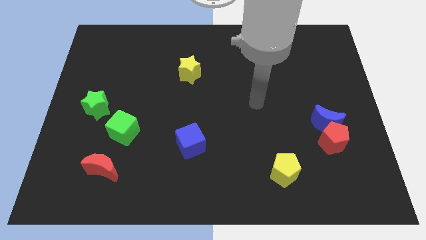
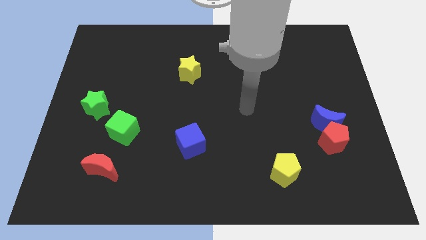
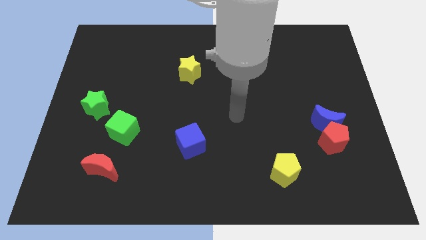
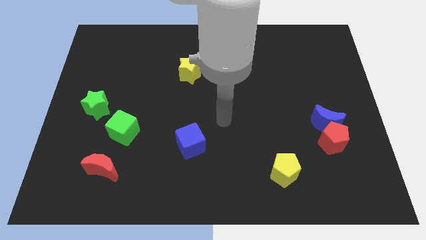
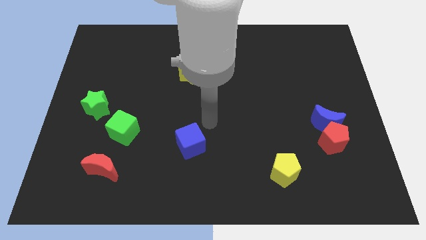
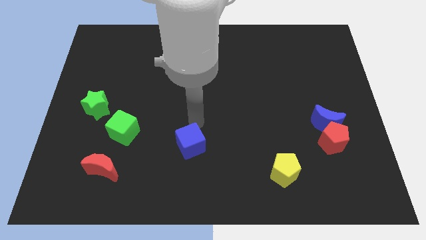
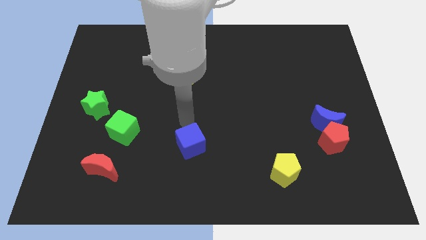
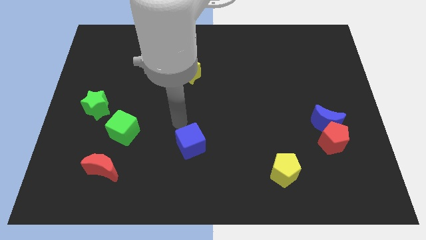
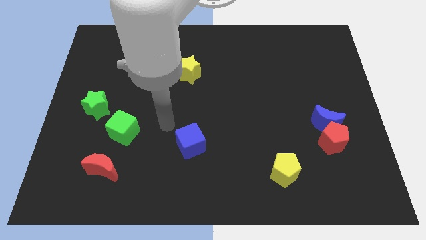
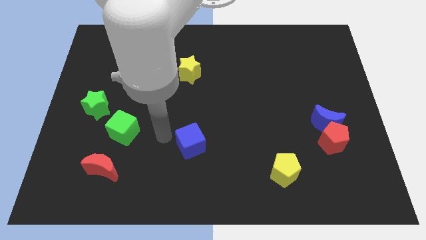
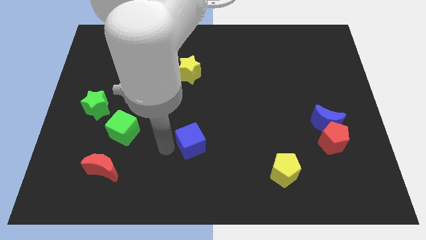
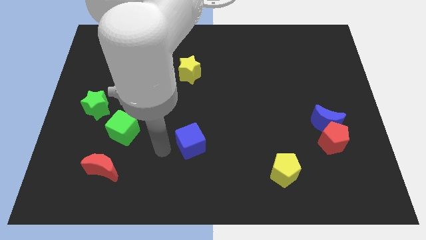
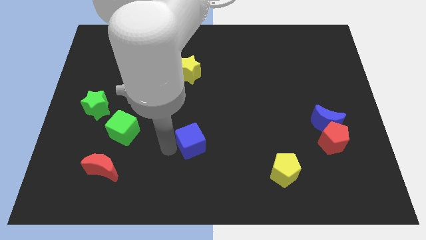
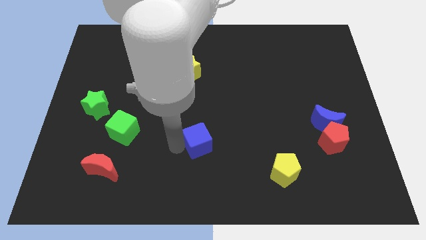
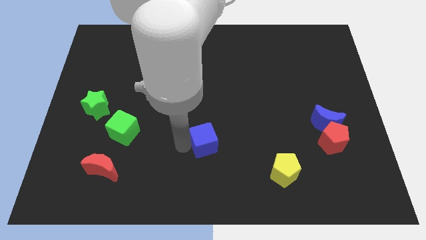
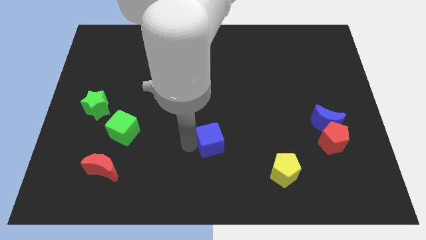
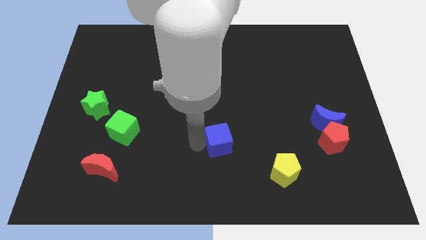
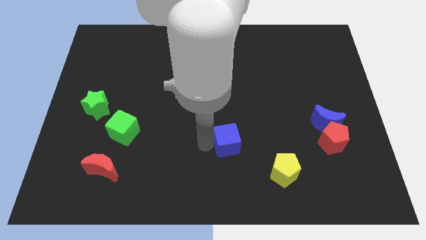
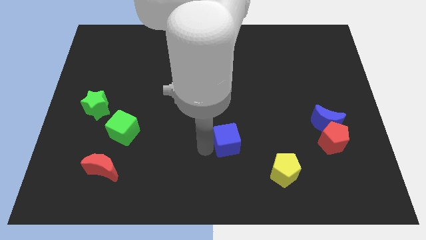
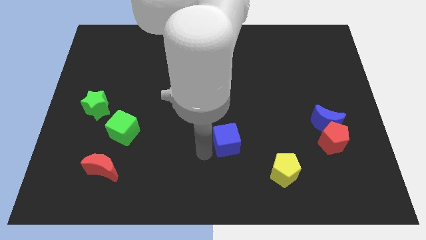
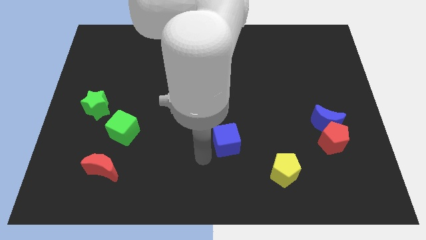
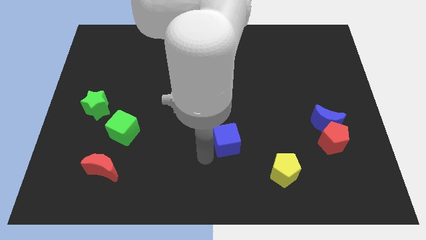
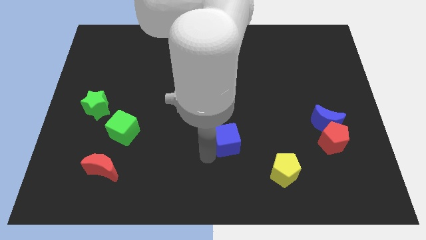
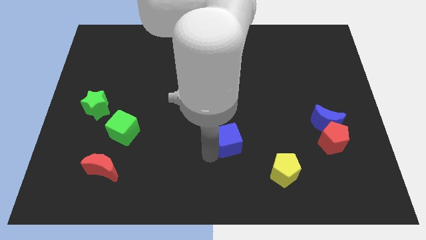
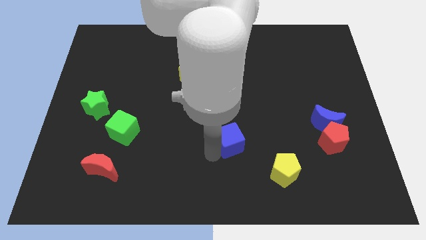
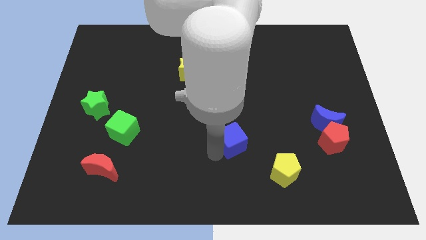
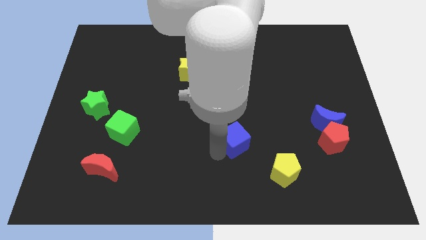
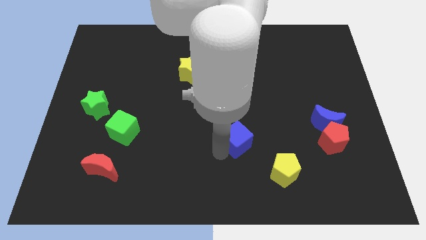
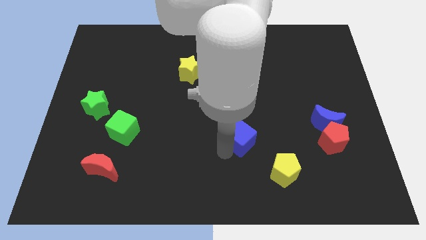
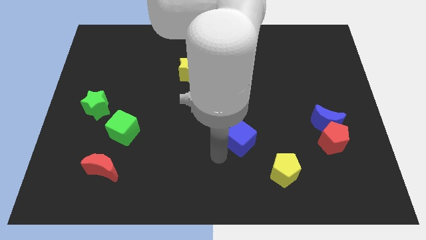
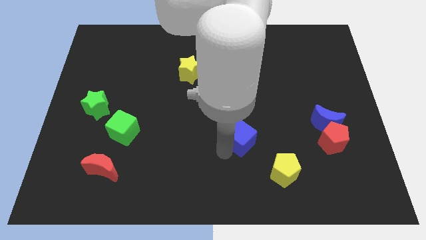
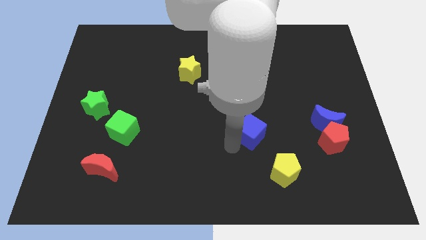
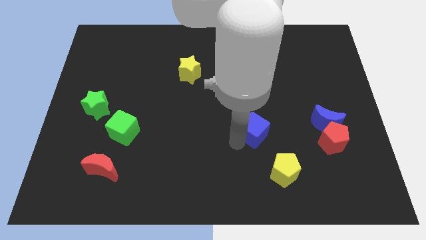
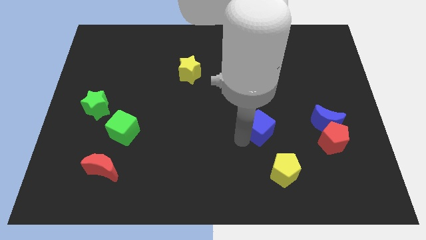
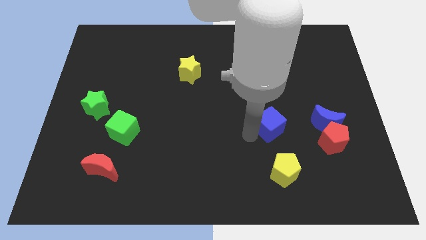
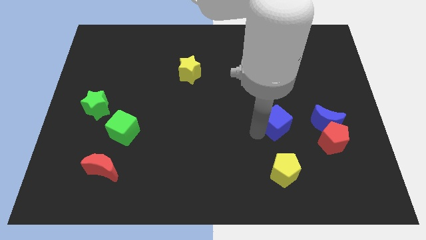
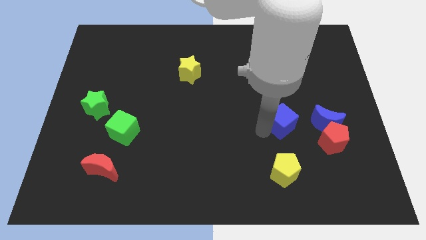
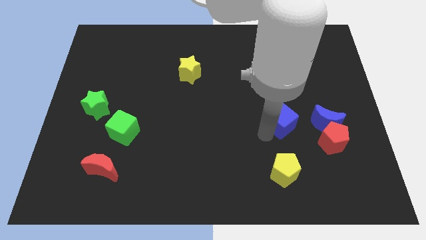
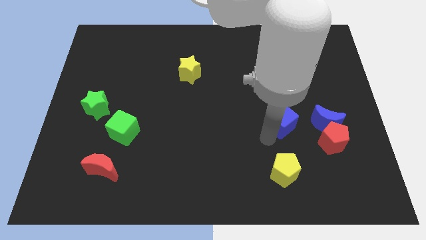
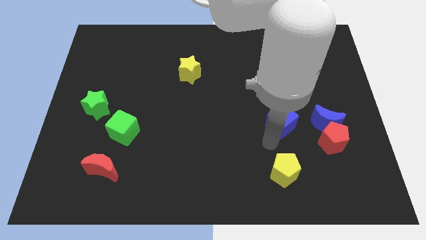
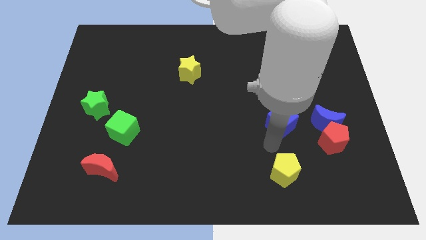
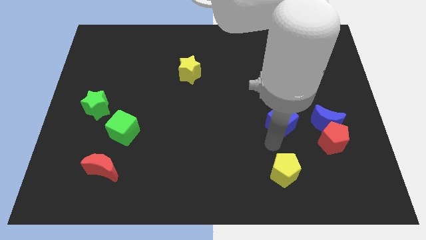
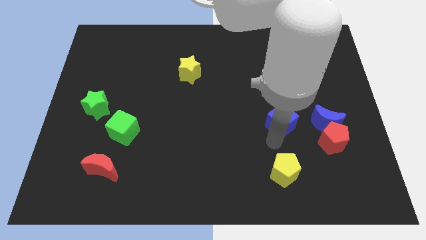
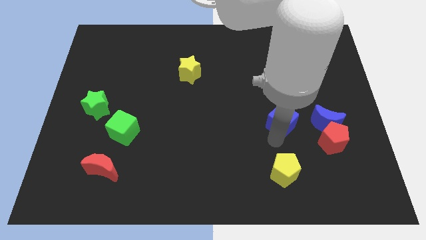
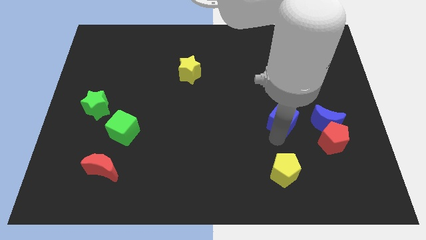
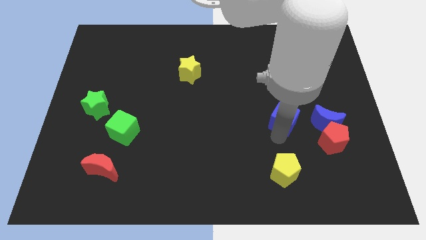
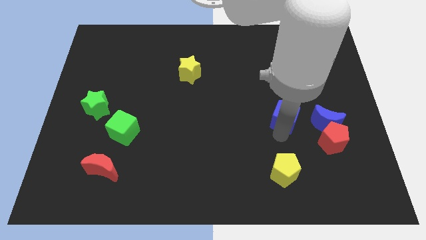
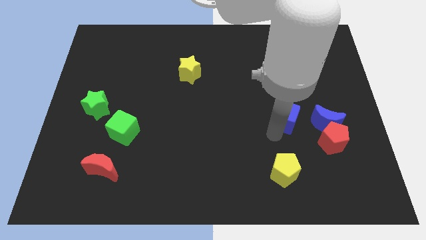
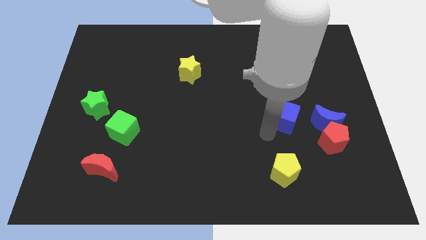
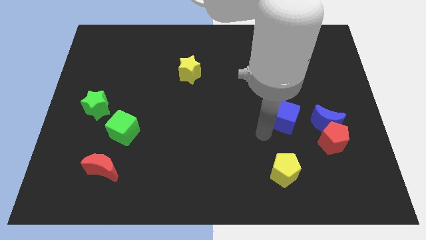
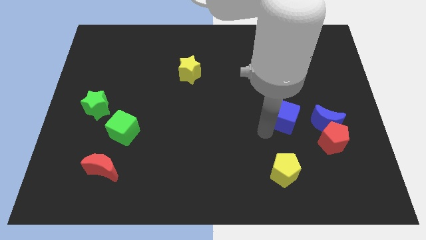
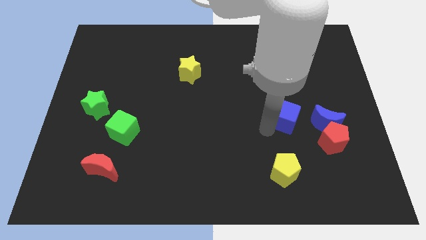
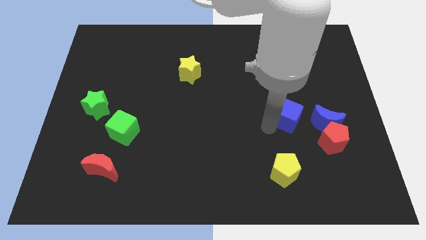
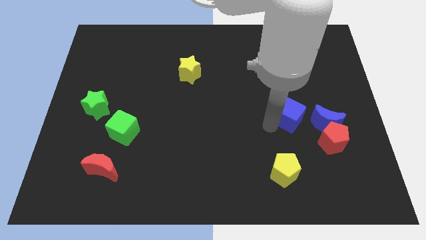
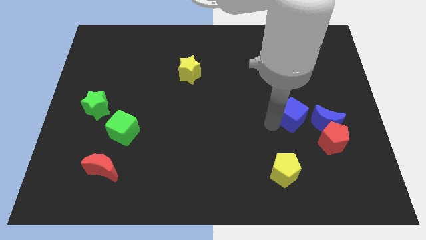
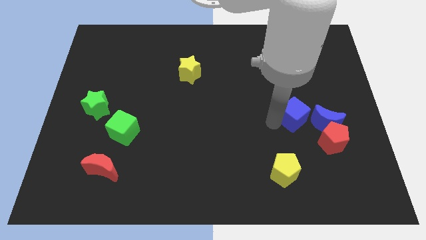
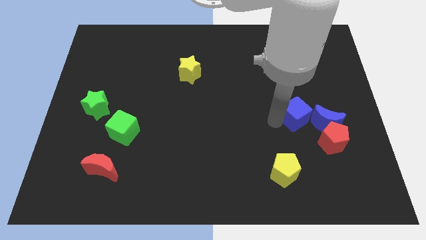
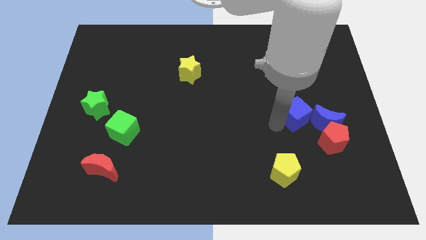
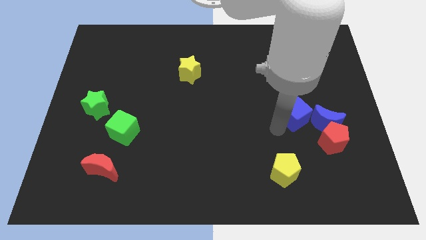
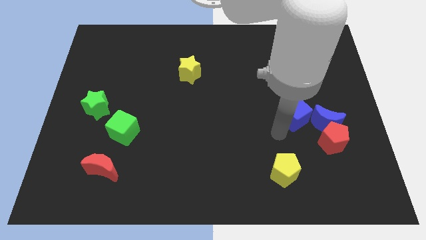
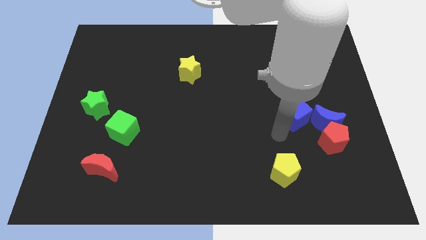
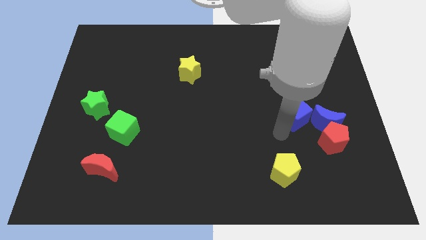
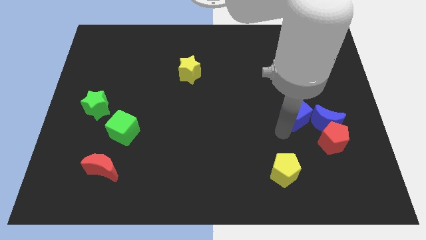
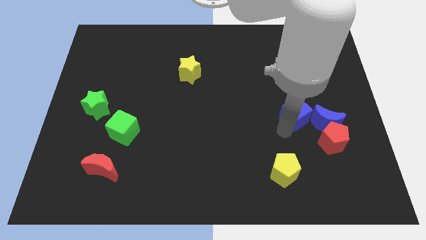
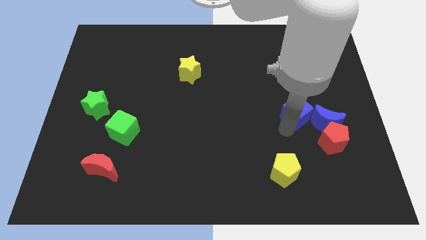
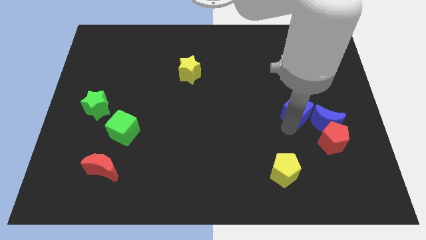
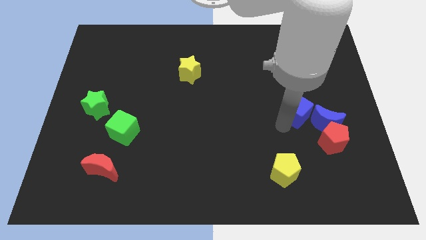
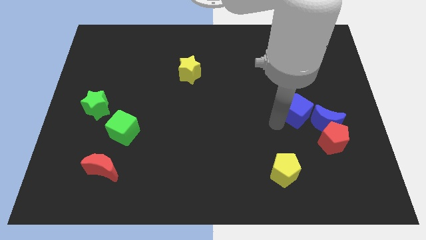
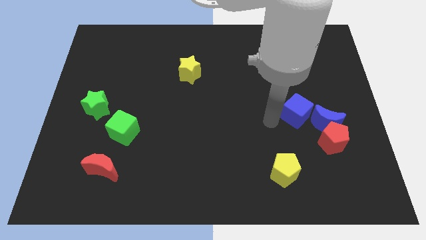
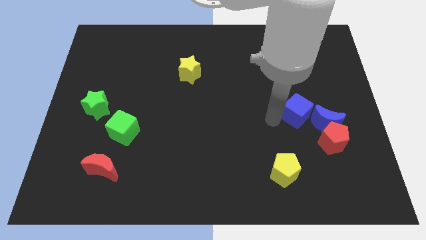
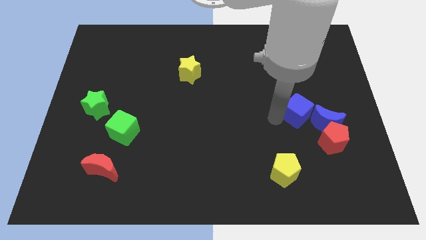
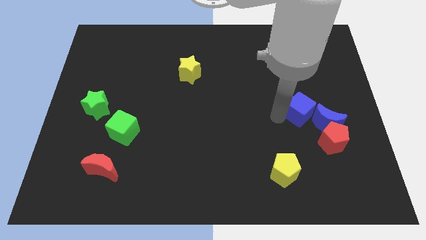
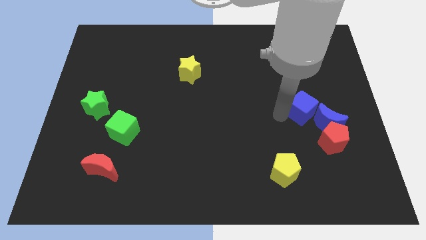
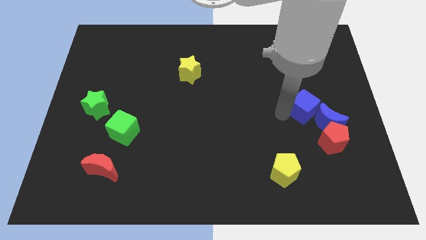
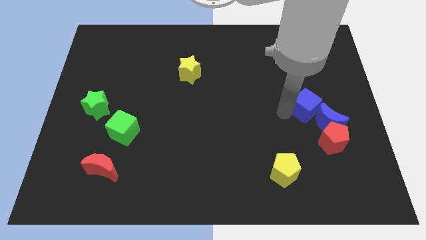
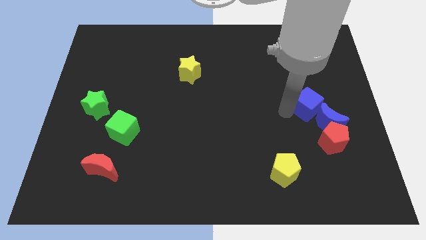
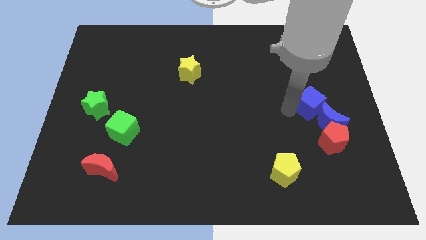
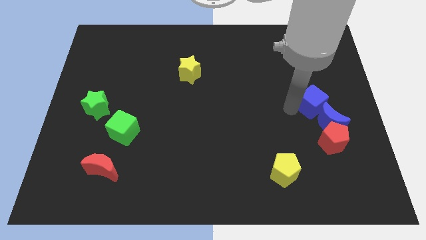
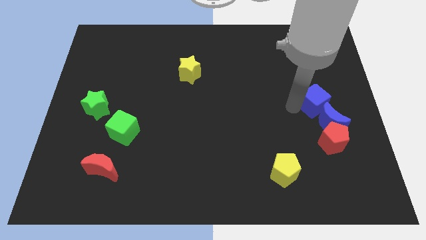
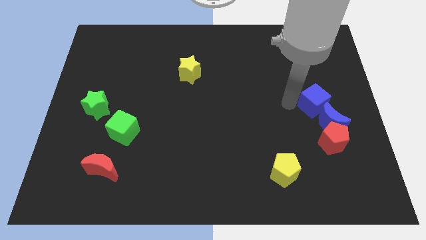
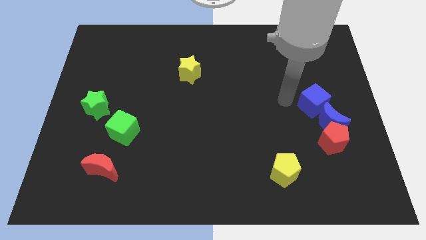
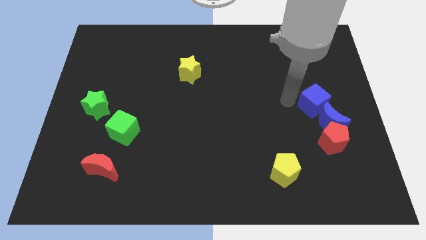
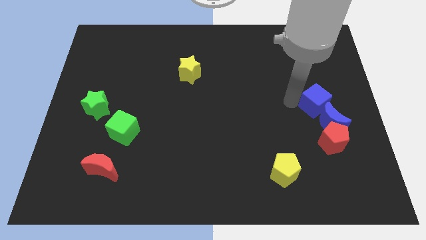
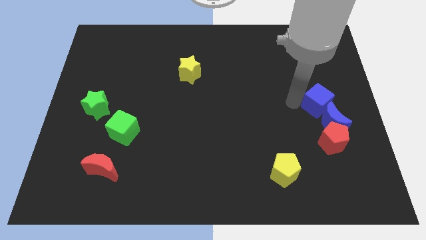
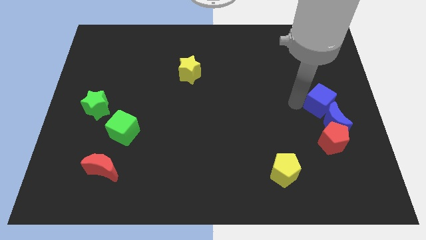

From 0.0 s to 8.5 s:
put the blue cube to the center right
